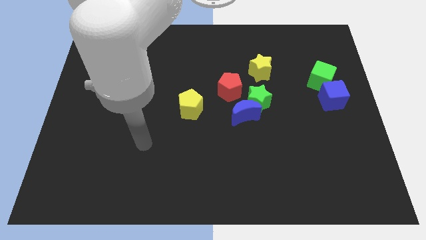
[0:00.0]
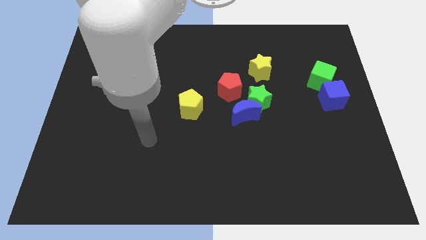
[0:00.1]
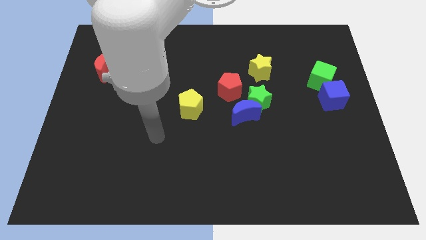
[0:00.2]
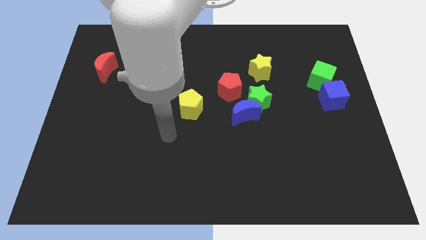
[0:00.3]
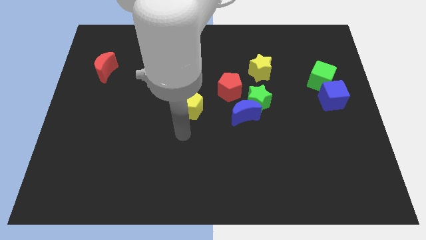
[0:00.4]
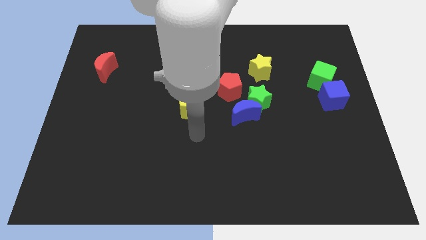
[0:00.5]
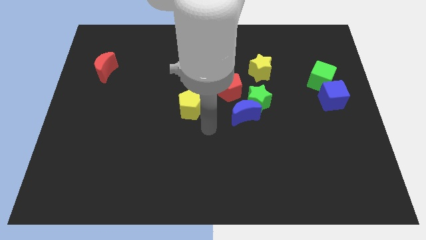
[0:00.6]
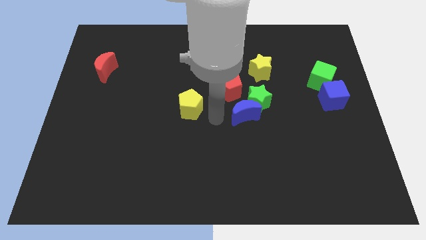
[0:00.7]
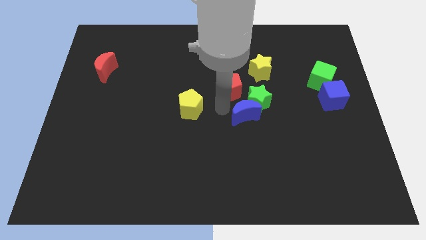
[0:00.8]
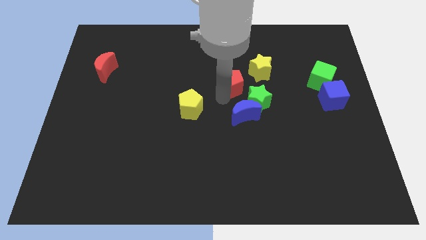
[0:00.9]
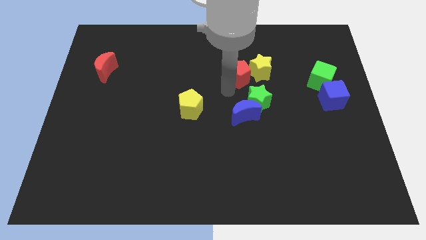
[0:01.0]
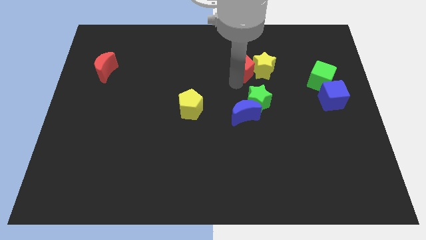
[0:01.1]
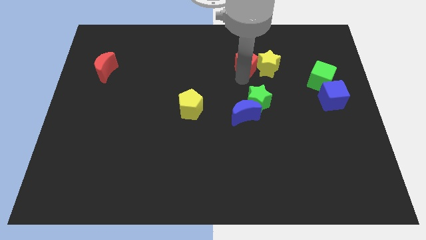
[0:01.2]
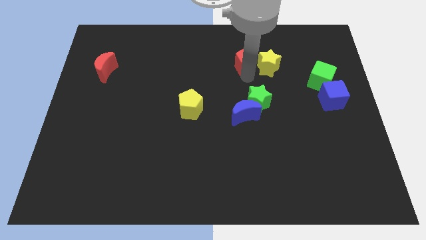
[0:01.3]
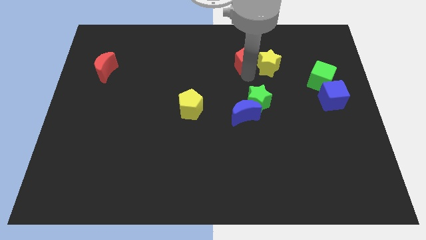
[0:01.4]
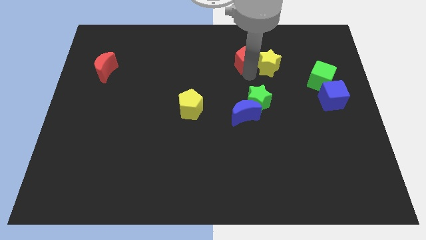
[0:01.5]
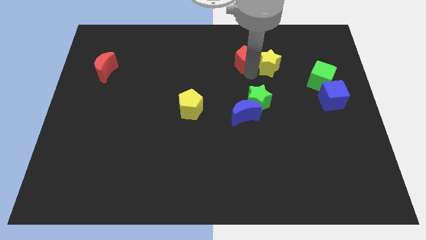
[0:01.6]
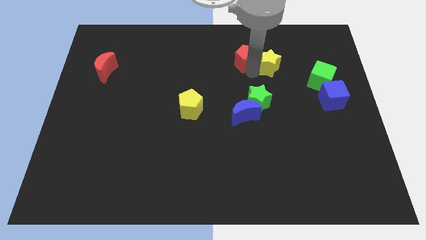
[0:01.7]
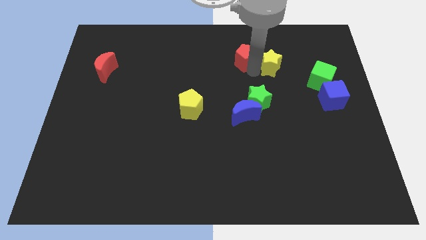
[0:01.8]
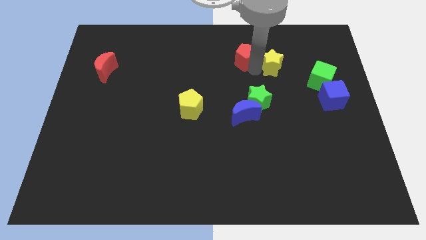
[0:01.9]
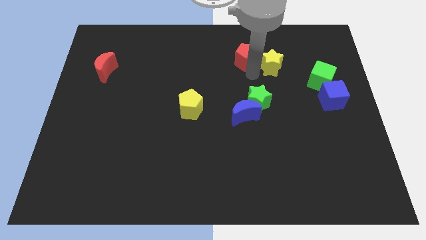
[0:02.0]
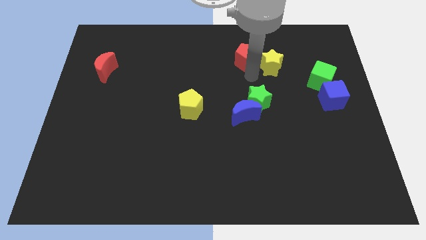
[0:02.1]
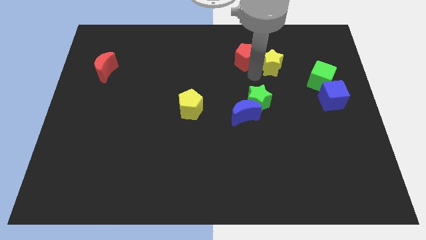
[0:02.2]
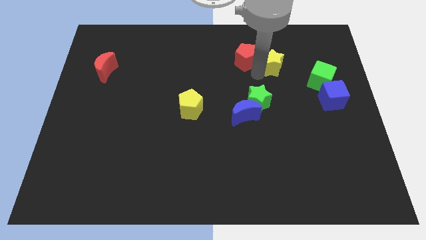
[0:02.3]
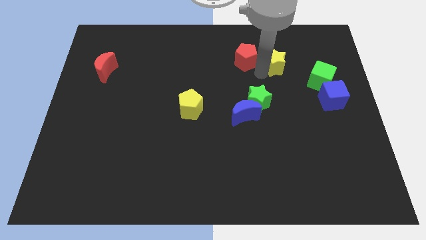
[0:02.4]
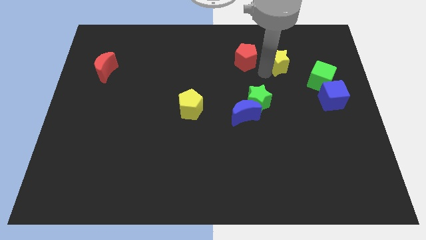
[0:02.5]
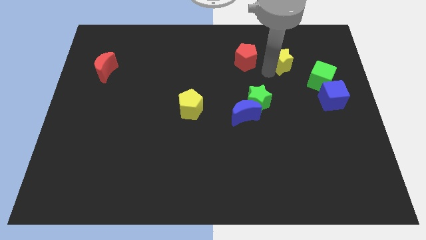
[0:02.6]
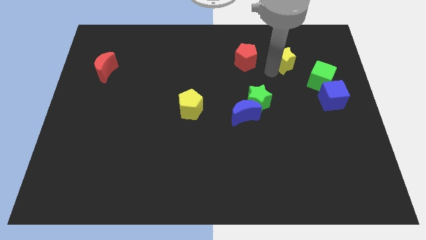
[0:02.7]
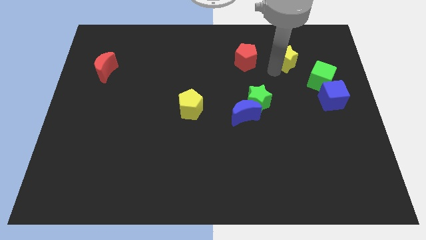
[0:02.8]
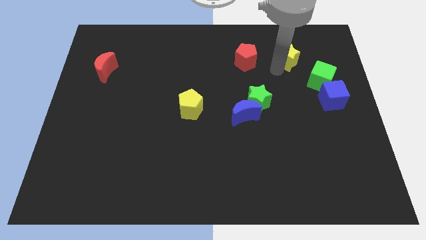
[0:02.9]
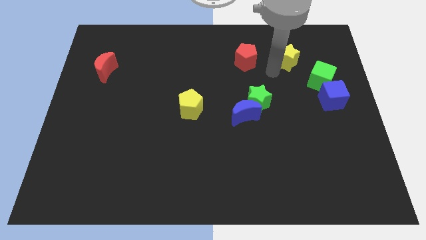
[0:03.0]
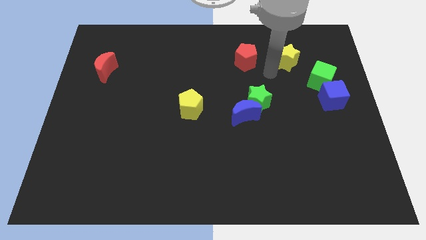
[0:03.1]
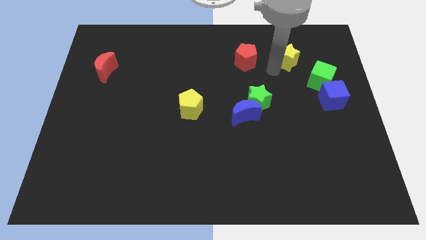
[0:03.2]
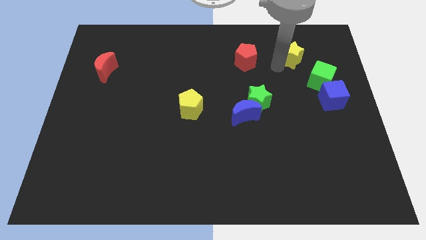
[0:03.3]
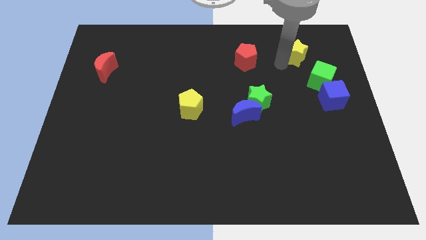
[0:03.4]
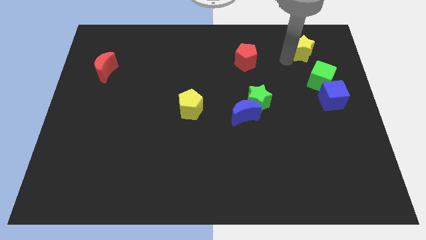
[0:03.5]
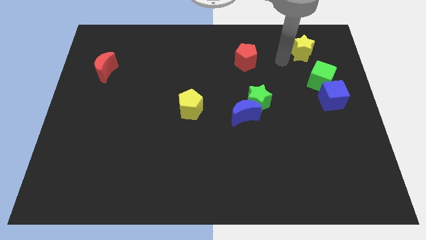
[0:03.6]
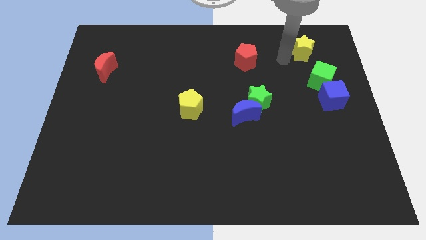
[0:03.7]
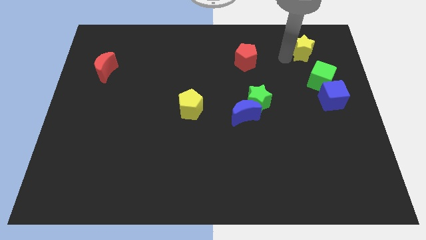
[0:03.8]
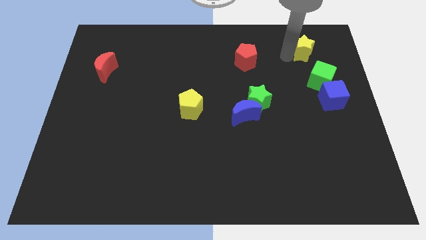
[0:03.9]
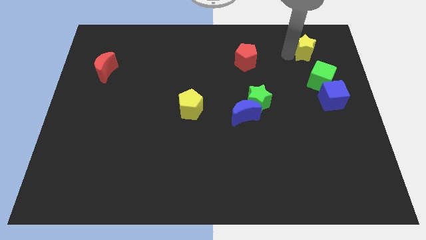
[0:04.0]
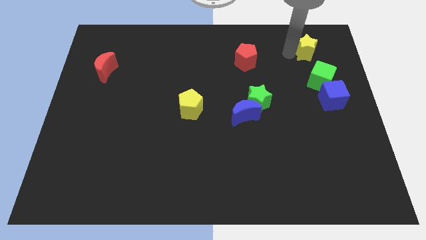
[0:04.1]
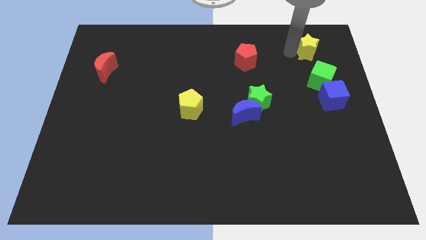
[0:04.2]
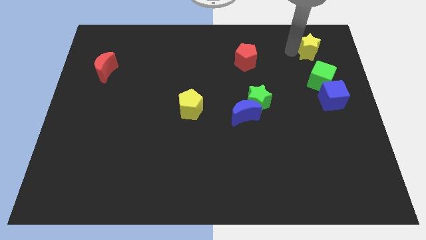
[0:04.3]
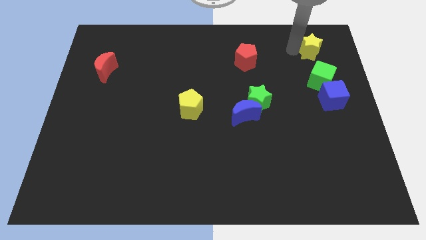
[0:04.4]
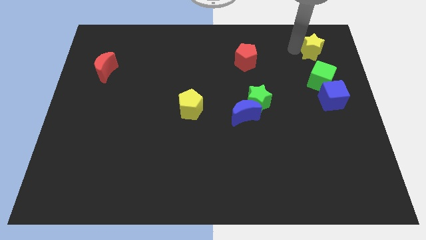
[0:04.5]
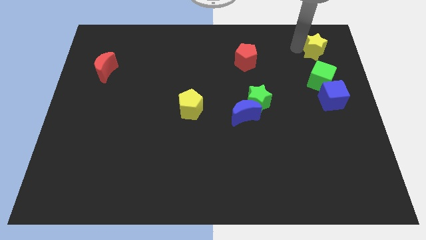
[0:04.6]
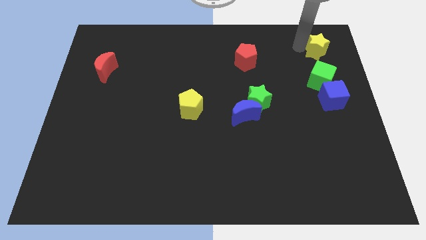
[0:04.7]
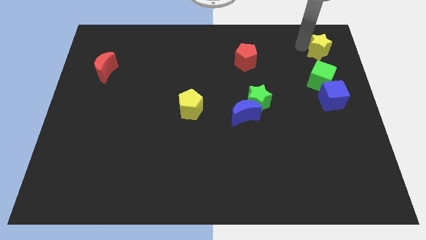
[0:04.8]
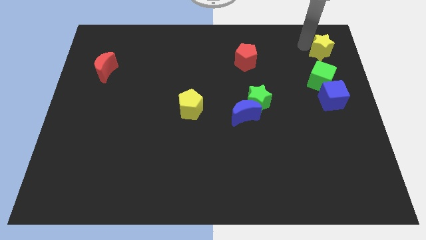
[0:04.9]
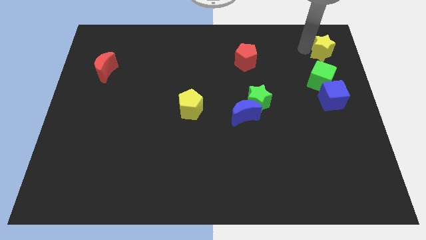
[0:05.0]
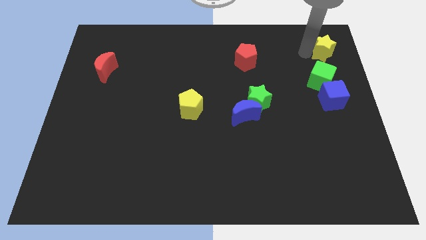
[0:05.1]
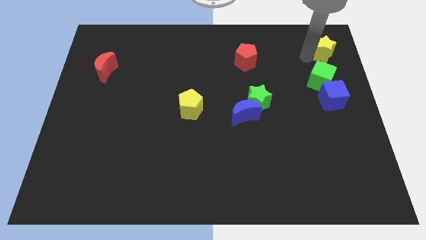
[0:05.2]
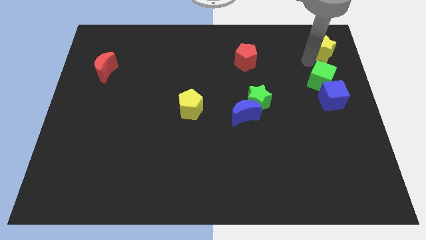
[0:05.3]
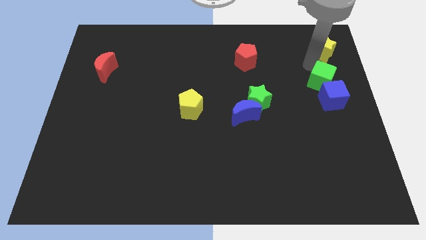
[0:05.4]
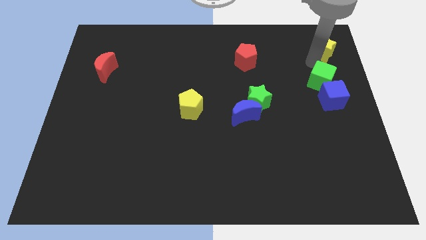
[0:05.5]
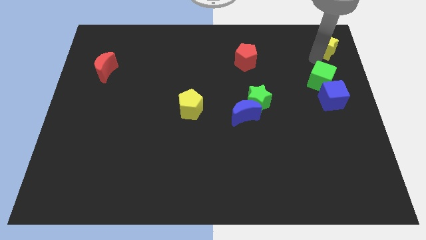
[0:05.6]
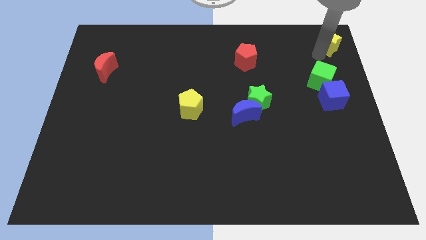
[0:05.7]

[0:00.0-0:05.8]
move the yellow star to the top right corner

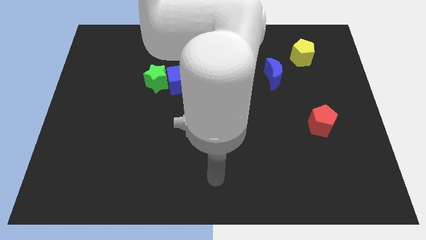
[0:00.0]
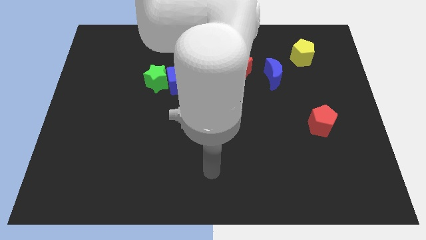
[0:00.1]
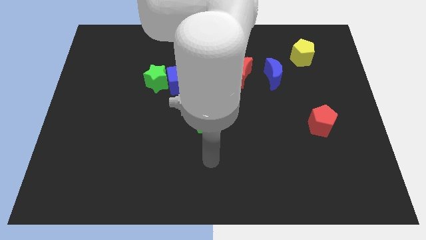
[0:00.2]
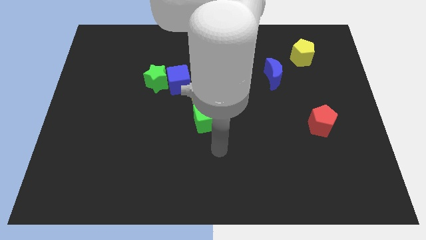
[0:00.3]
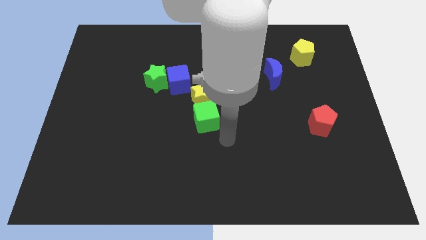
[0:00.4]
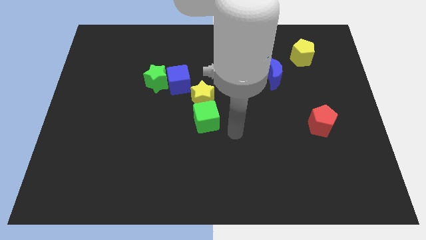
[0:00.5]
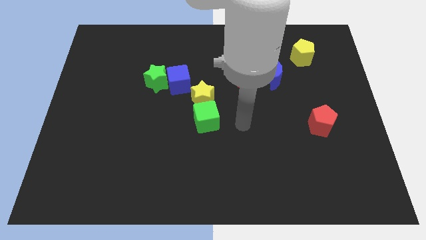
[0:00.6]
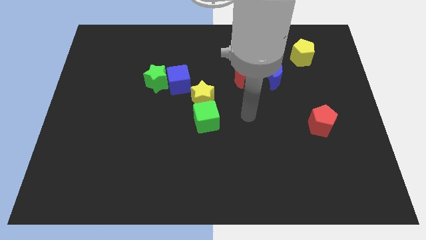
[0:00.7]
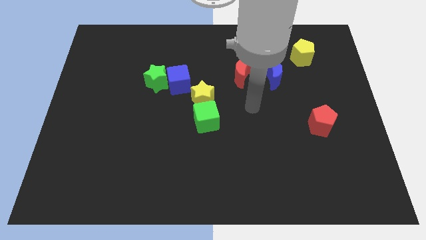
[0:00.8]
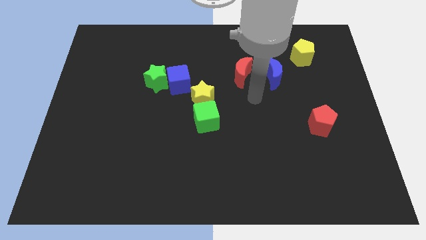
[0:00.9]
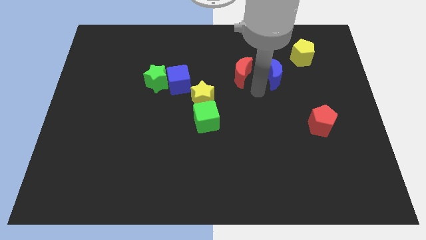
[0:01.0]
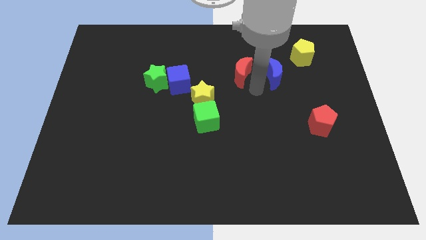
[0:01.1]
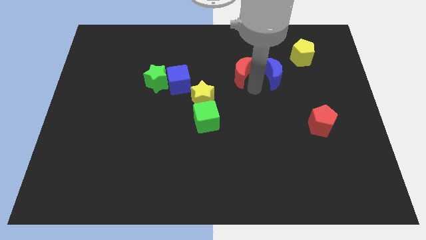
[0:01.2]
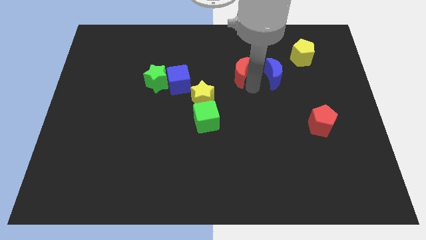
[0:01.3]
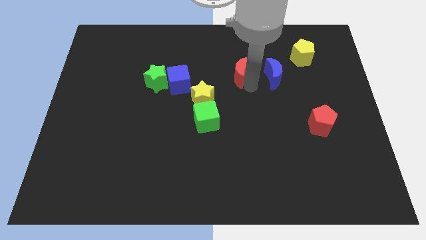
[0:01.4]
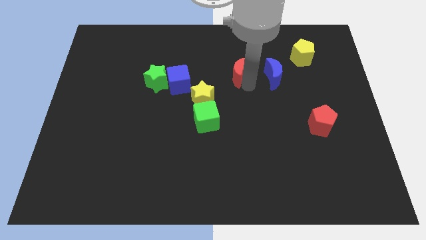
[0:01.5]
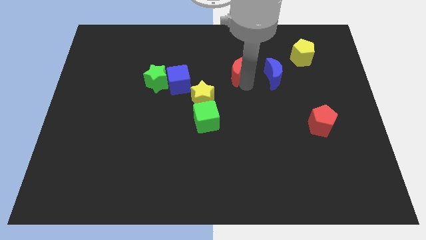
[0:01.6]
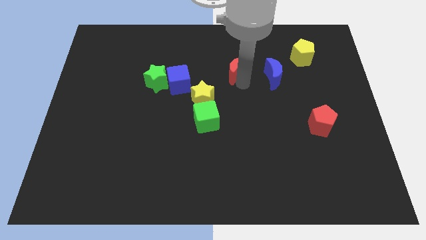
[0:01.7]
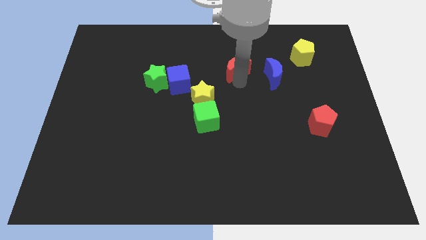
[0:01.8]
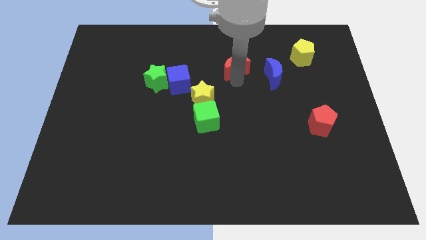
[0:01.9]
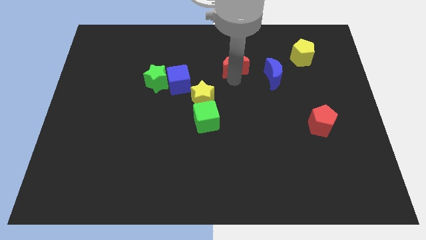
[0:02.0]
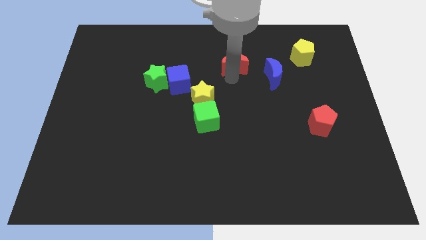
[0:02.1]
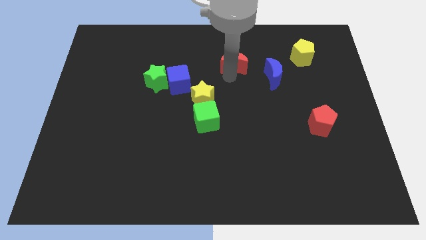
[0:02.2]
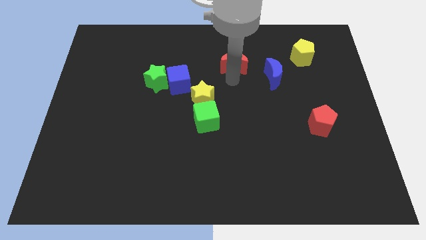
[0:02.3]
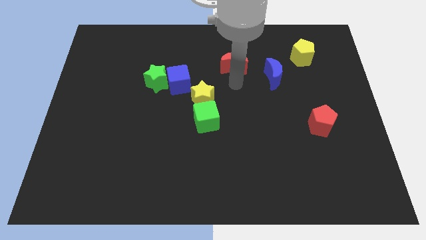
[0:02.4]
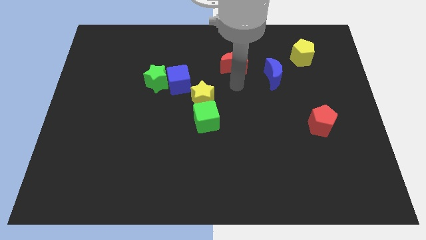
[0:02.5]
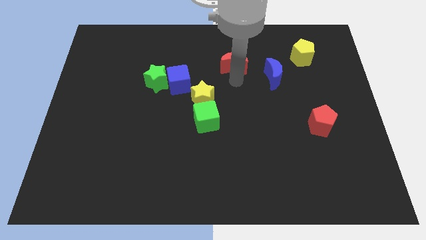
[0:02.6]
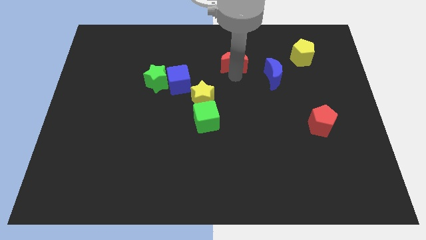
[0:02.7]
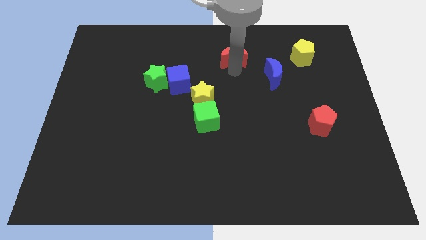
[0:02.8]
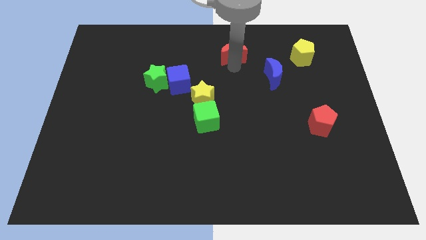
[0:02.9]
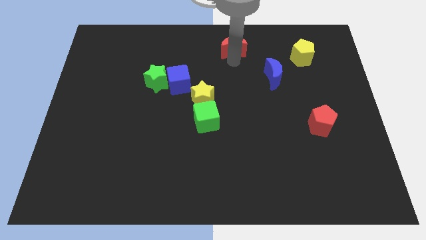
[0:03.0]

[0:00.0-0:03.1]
push the red moon to the top side
